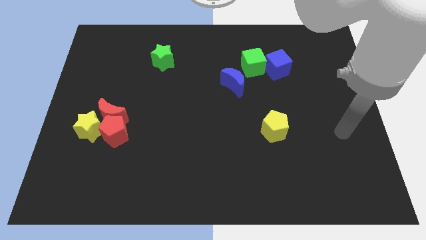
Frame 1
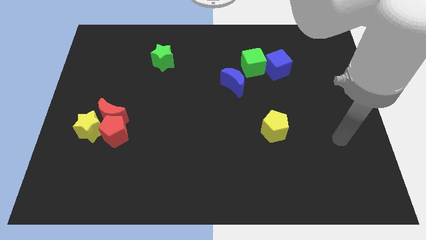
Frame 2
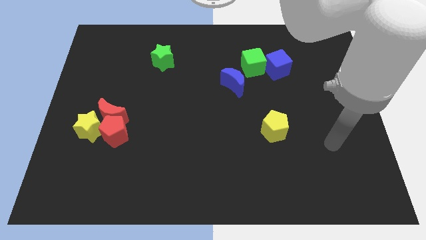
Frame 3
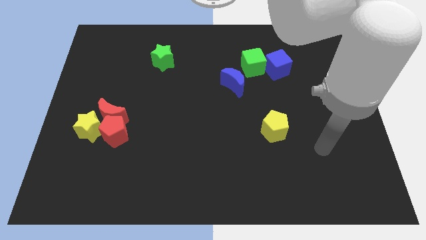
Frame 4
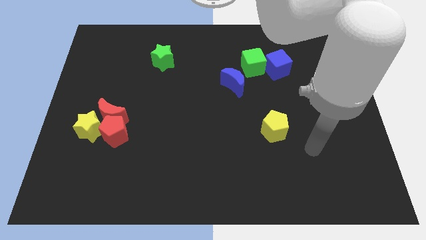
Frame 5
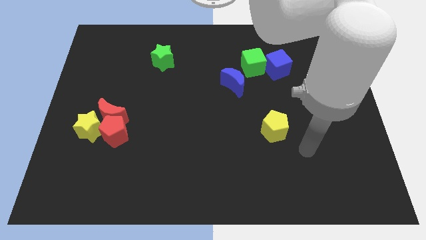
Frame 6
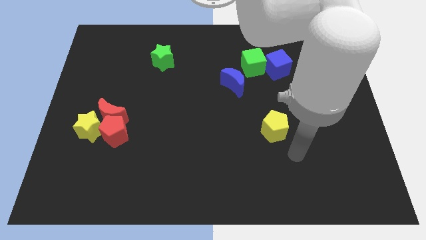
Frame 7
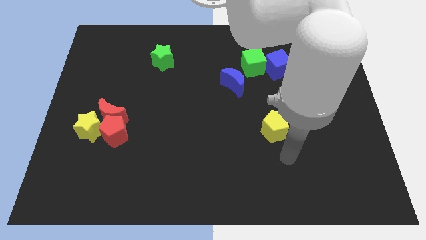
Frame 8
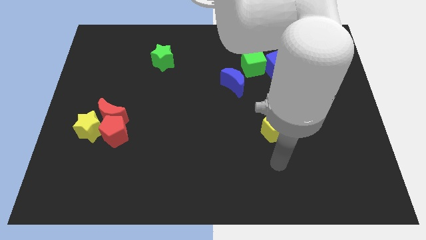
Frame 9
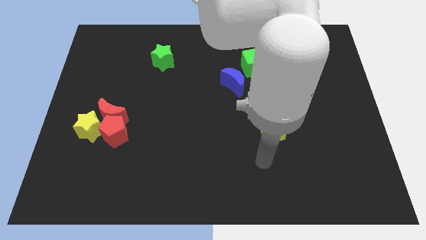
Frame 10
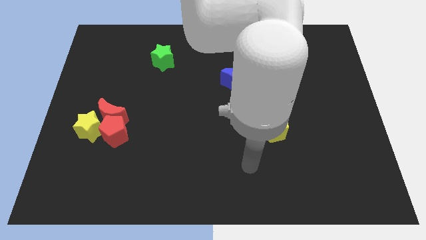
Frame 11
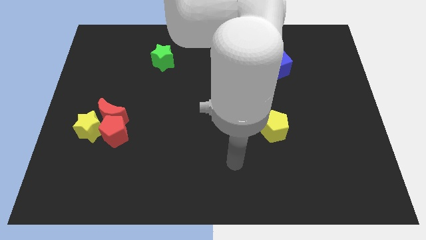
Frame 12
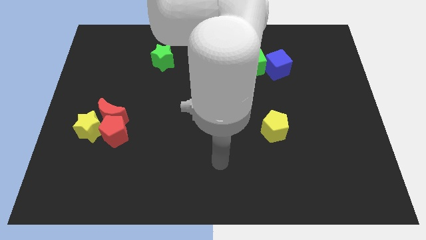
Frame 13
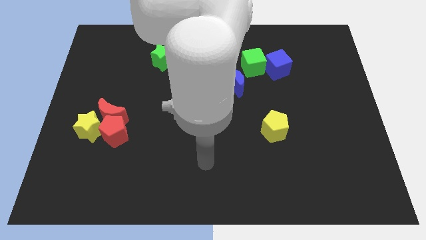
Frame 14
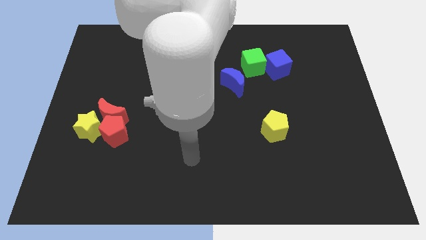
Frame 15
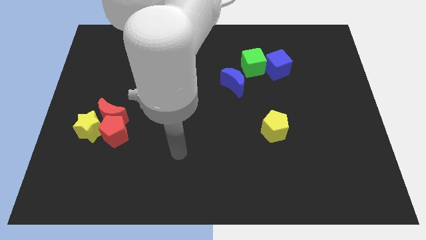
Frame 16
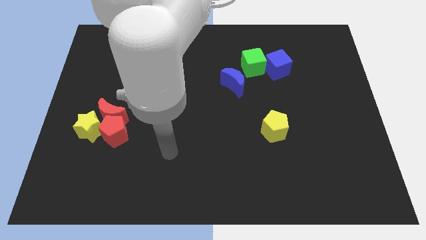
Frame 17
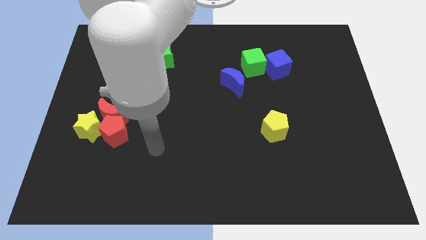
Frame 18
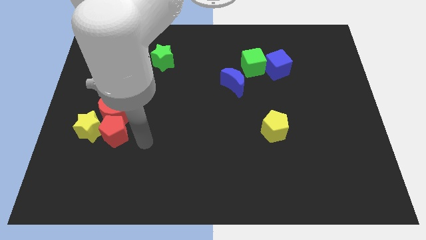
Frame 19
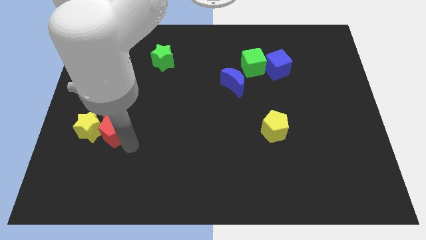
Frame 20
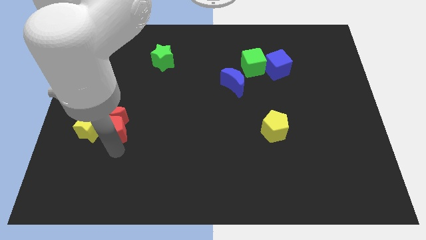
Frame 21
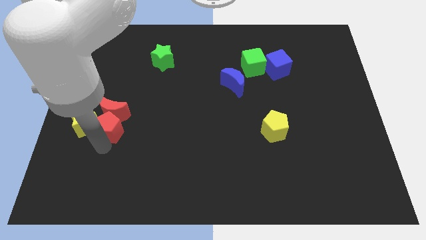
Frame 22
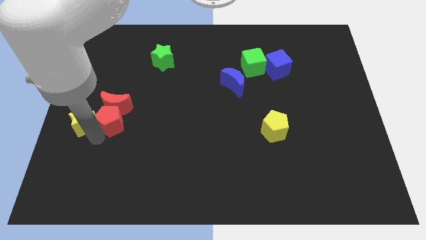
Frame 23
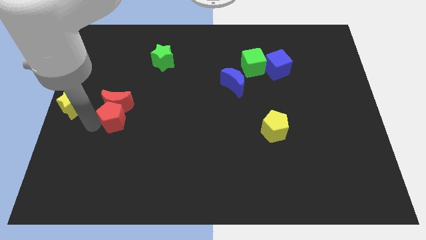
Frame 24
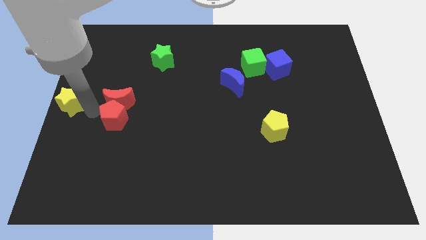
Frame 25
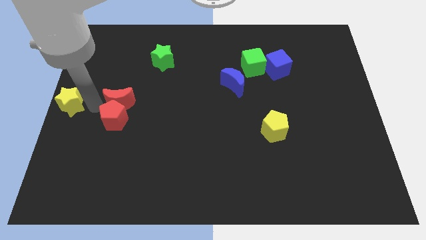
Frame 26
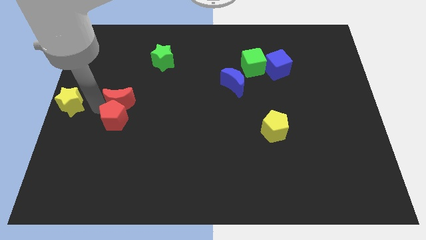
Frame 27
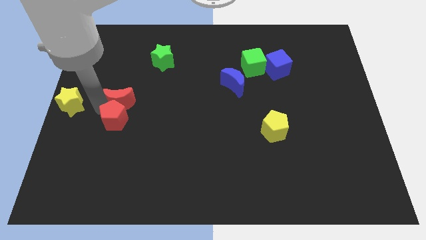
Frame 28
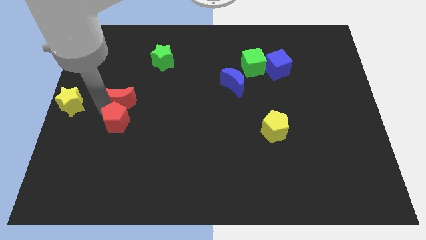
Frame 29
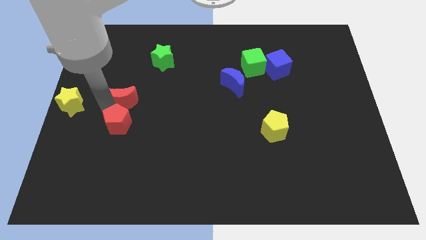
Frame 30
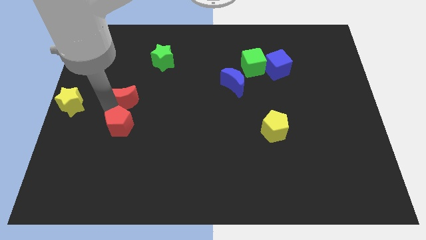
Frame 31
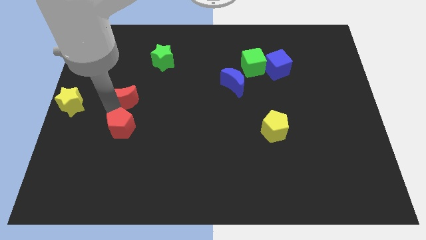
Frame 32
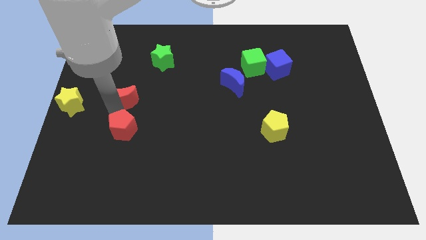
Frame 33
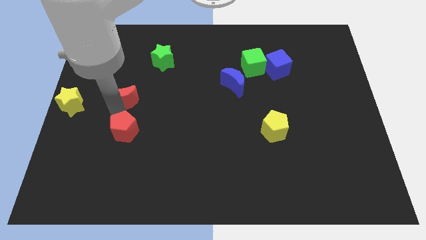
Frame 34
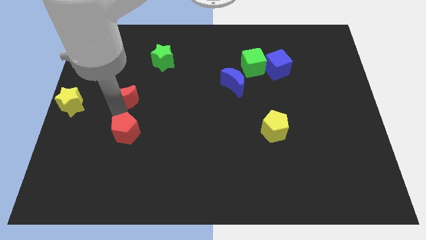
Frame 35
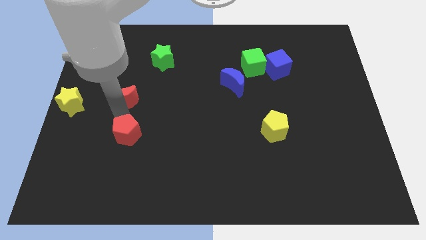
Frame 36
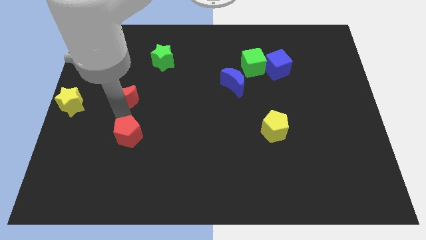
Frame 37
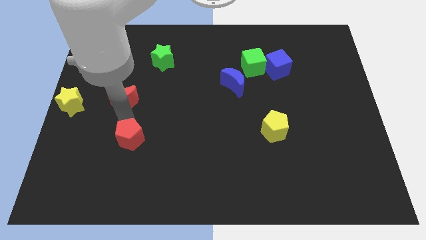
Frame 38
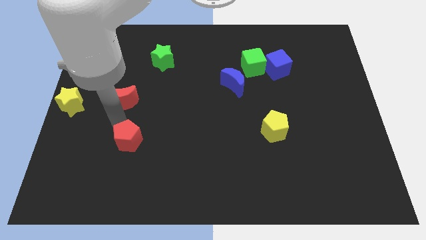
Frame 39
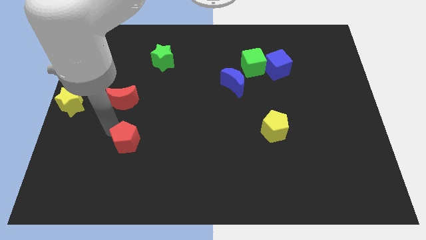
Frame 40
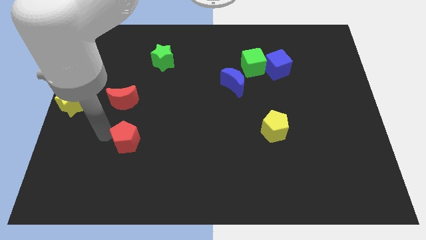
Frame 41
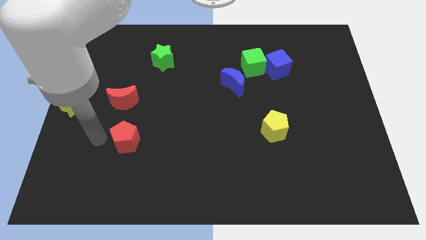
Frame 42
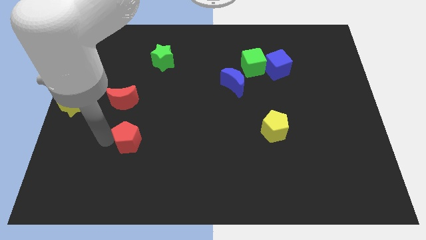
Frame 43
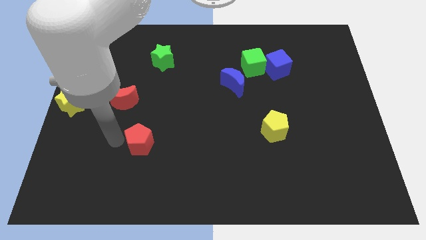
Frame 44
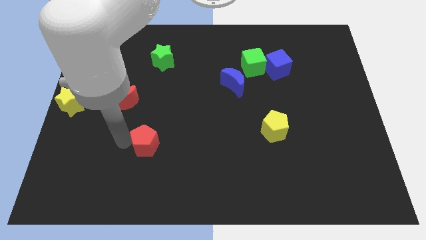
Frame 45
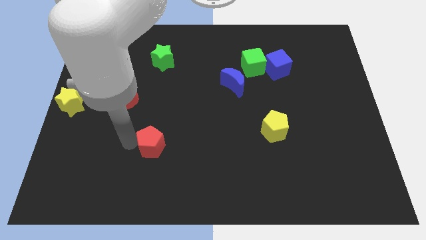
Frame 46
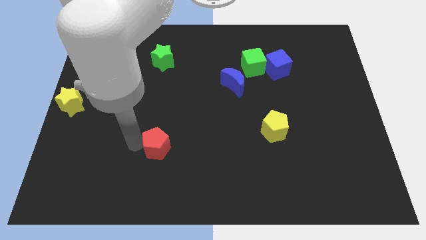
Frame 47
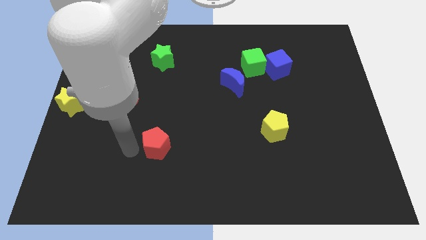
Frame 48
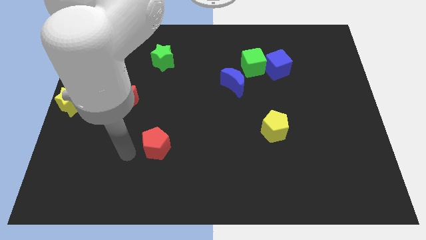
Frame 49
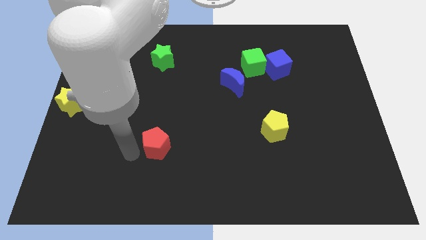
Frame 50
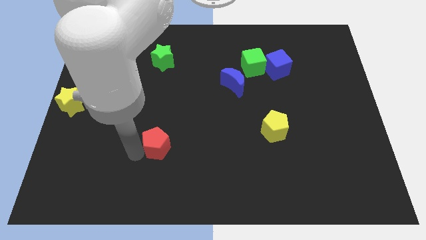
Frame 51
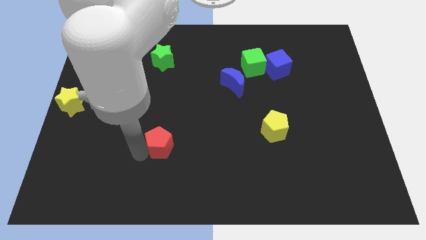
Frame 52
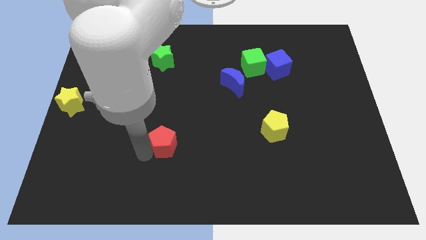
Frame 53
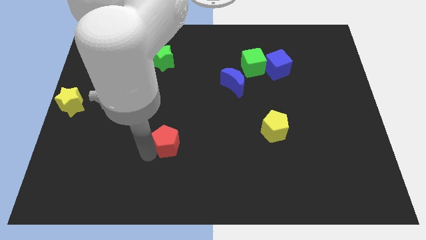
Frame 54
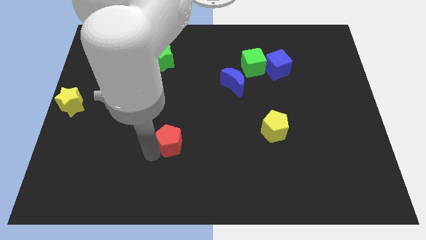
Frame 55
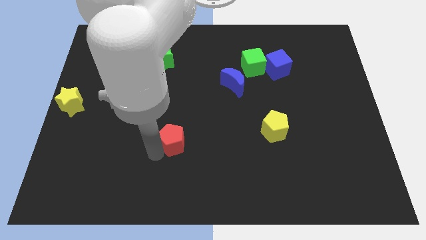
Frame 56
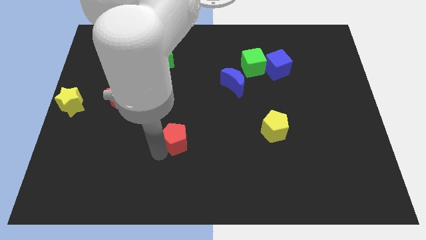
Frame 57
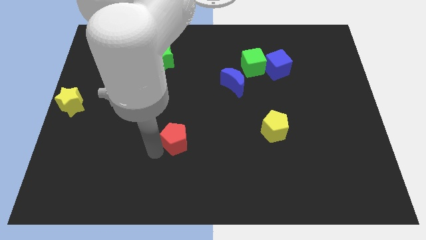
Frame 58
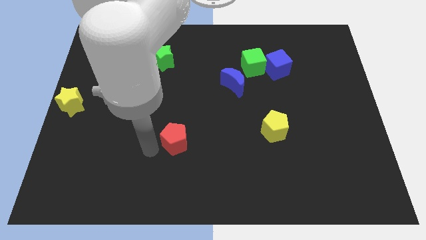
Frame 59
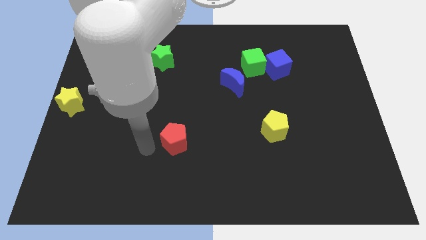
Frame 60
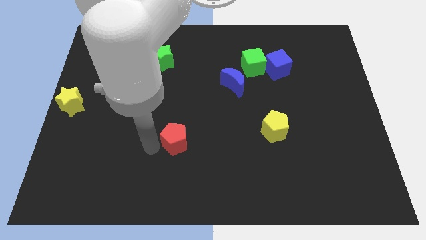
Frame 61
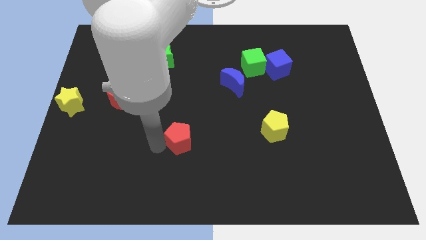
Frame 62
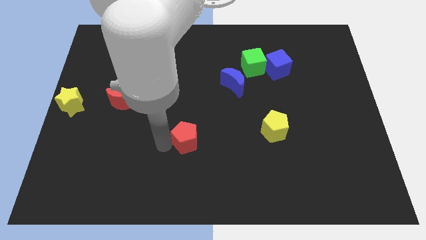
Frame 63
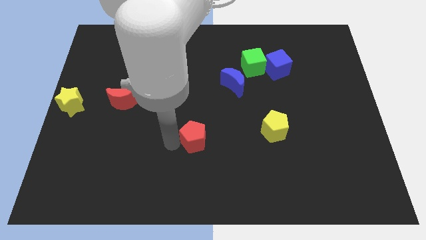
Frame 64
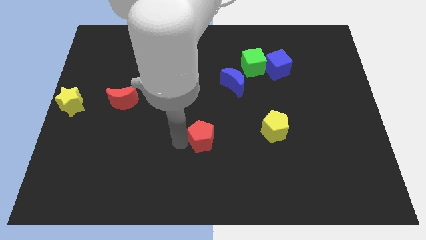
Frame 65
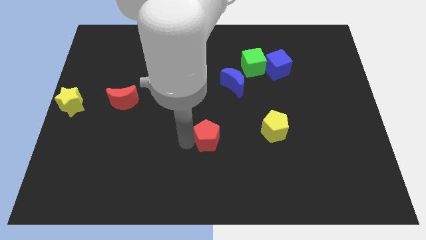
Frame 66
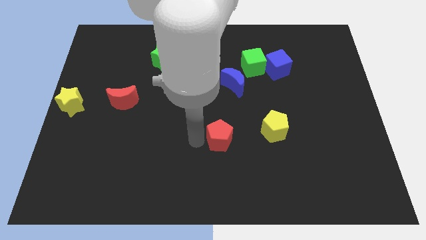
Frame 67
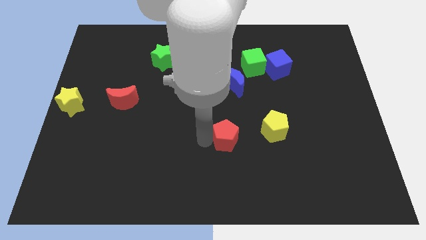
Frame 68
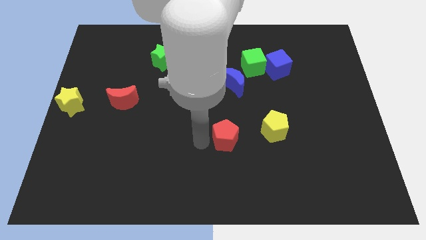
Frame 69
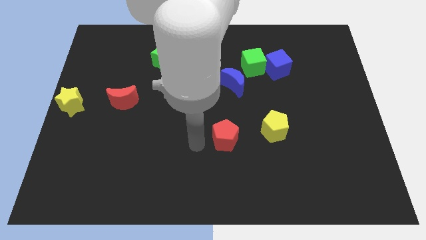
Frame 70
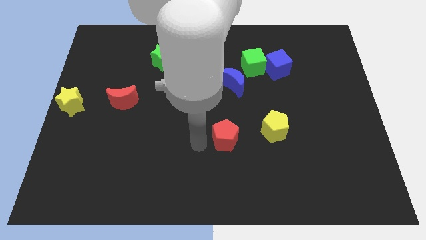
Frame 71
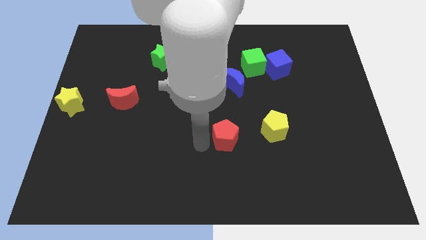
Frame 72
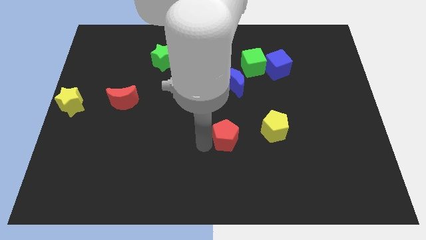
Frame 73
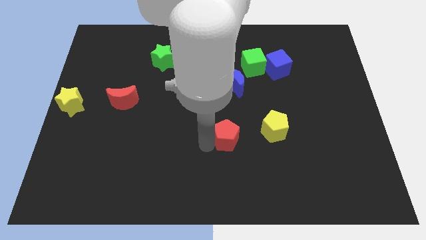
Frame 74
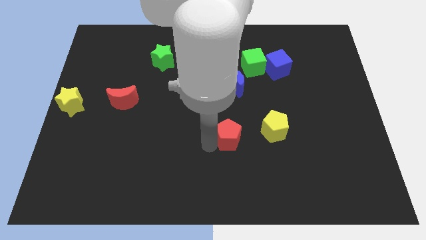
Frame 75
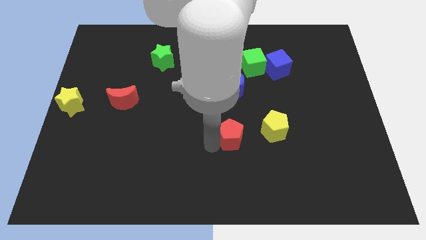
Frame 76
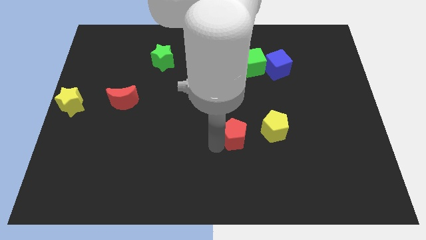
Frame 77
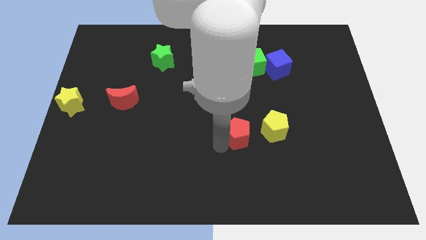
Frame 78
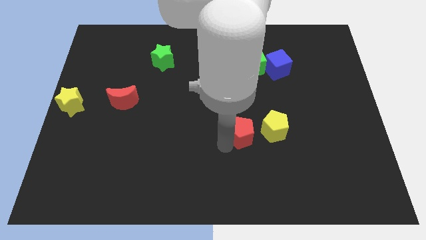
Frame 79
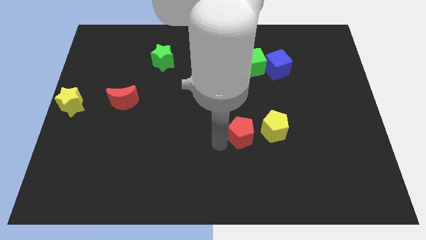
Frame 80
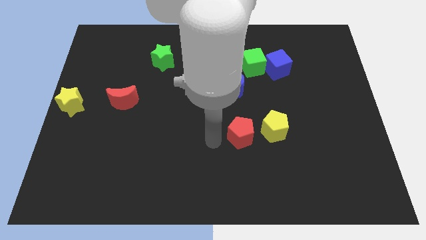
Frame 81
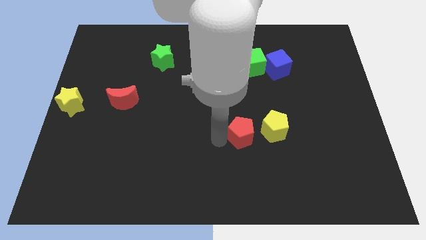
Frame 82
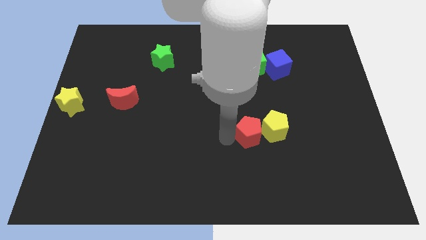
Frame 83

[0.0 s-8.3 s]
move the red pentagon to the yellow pentagon
